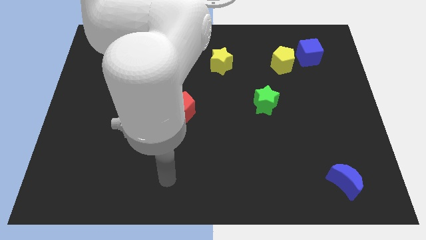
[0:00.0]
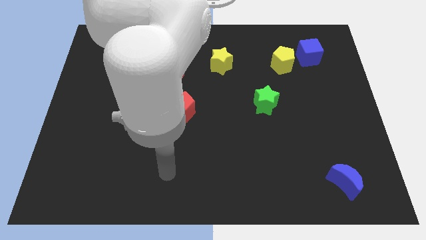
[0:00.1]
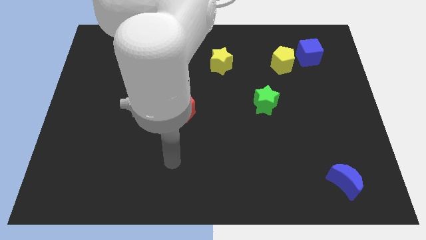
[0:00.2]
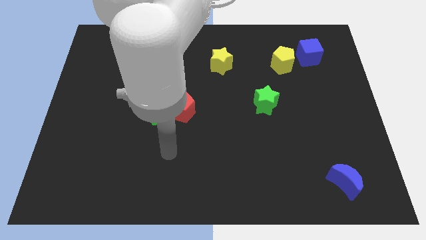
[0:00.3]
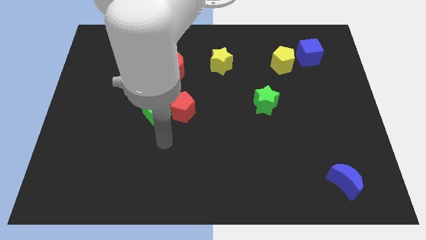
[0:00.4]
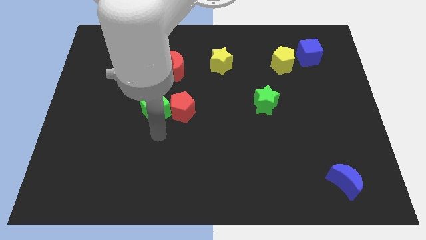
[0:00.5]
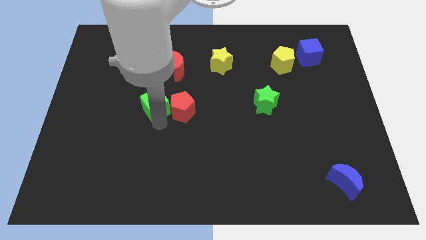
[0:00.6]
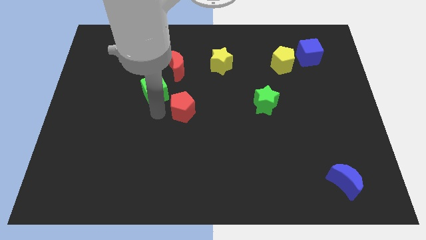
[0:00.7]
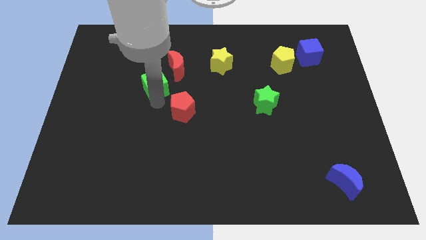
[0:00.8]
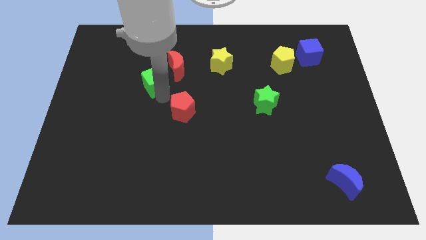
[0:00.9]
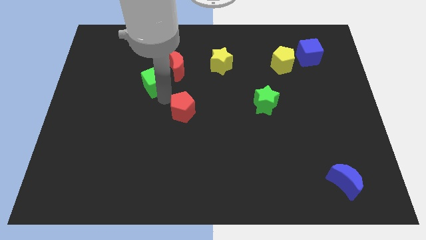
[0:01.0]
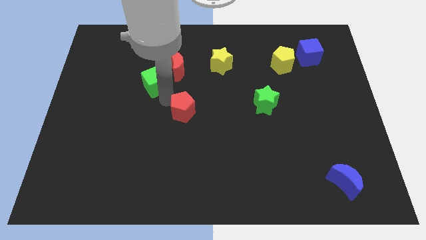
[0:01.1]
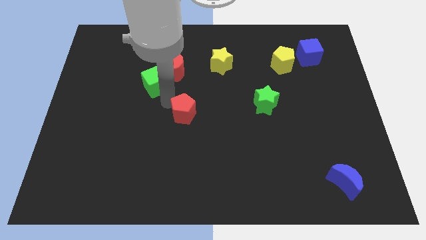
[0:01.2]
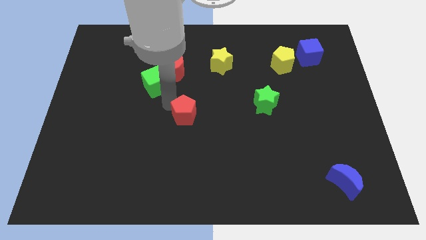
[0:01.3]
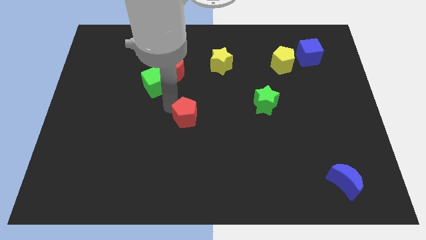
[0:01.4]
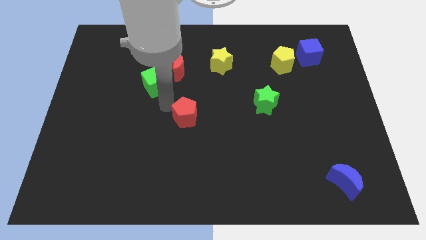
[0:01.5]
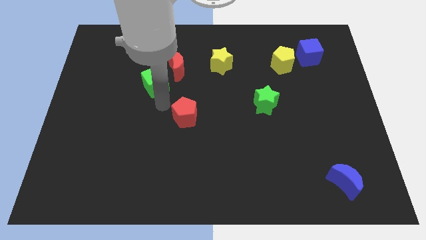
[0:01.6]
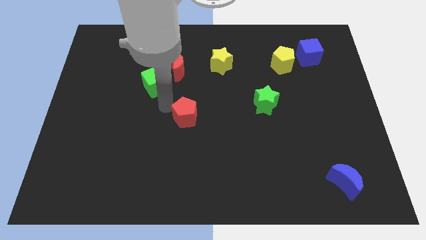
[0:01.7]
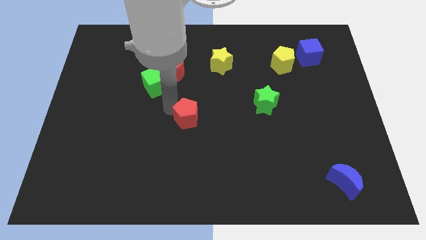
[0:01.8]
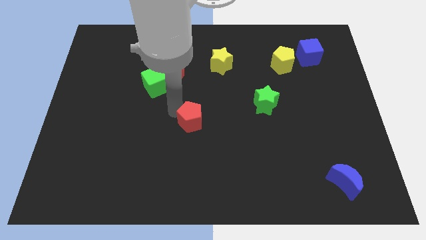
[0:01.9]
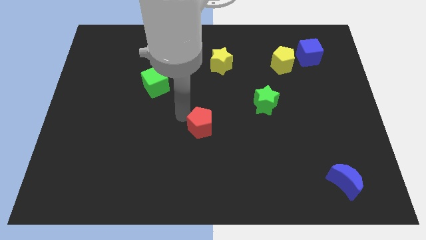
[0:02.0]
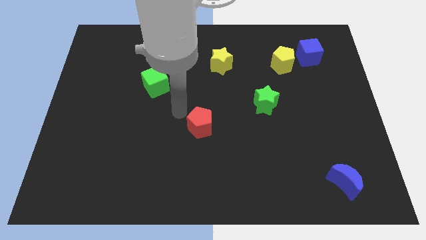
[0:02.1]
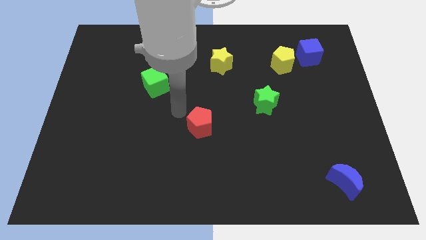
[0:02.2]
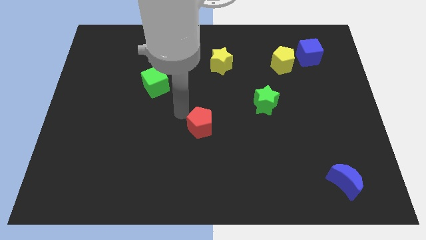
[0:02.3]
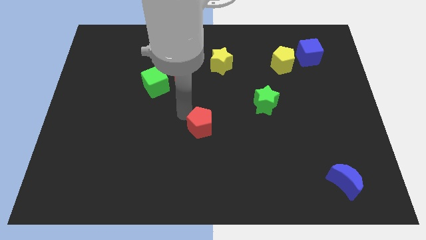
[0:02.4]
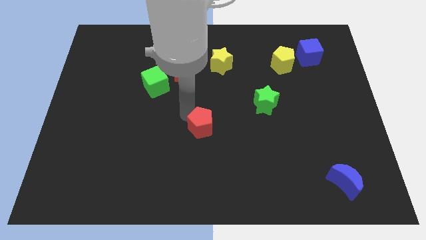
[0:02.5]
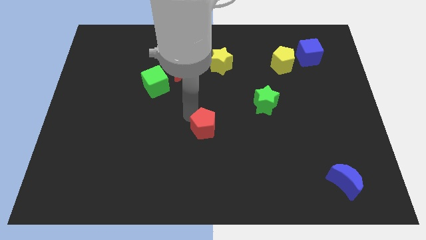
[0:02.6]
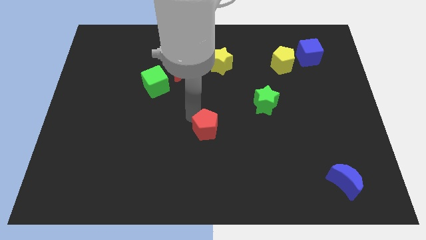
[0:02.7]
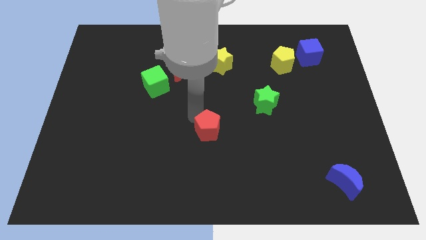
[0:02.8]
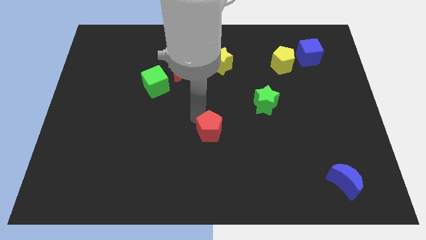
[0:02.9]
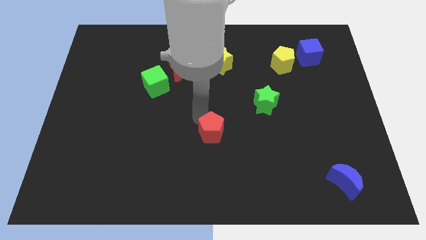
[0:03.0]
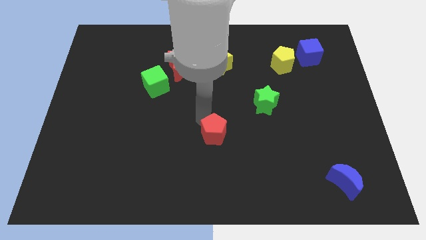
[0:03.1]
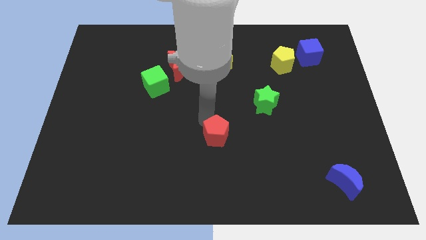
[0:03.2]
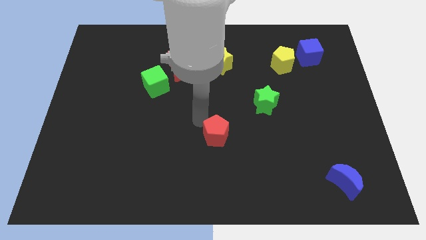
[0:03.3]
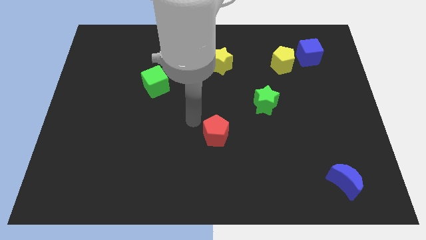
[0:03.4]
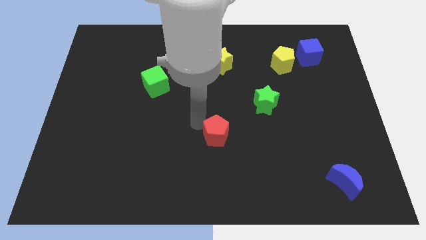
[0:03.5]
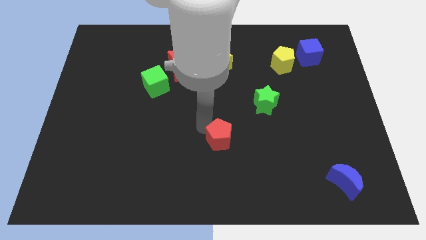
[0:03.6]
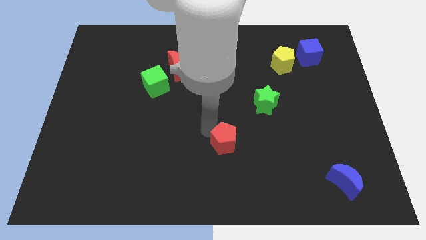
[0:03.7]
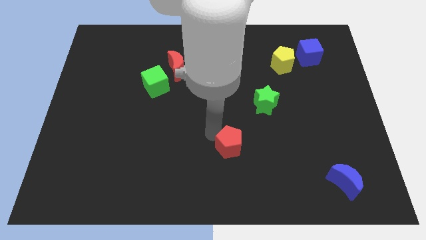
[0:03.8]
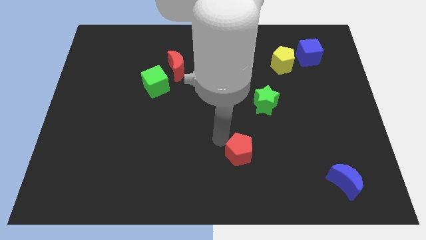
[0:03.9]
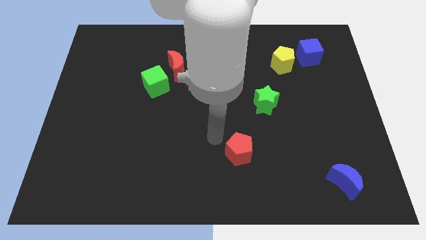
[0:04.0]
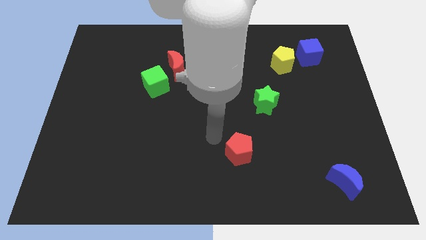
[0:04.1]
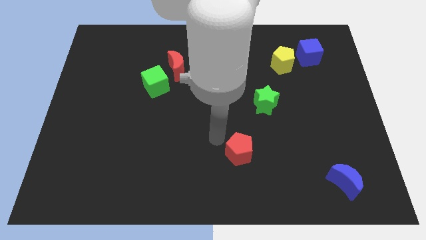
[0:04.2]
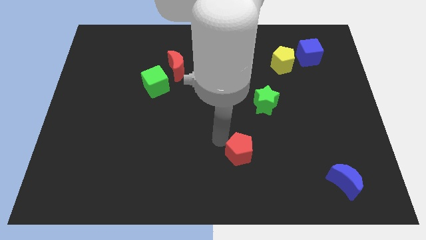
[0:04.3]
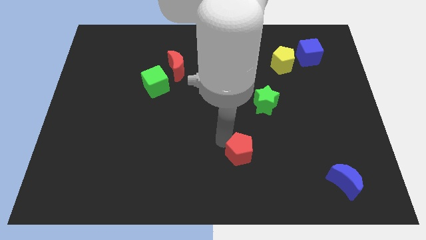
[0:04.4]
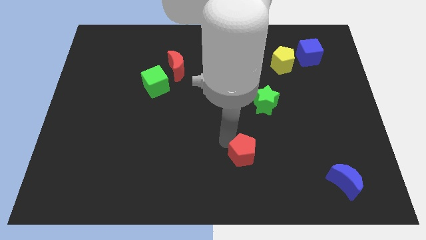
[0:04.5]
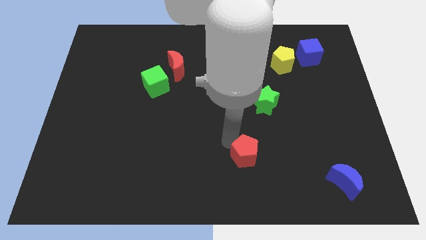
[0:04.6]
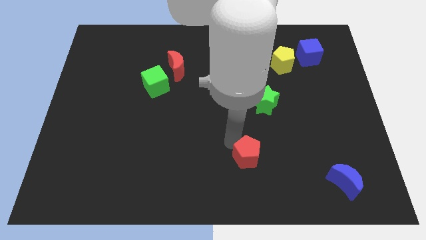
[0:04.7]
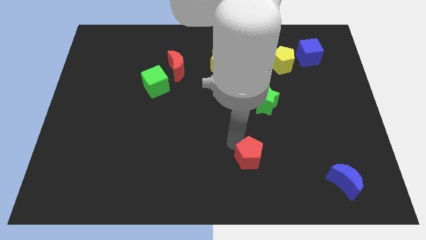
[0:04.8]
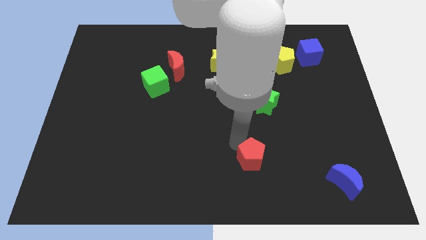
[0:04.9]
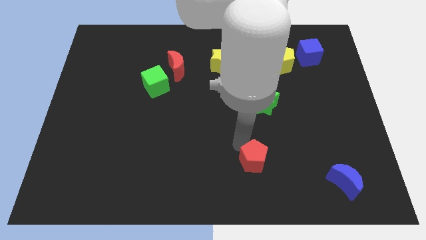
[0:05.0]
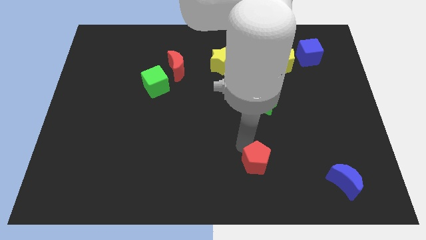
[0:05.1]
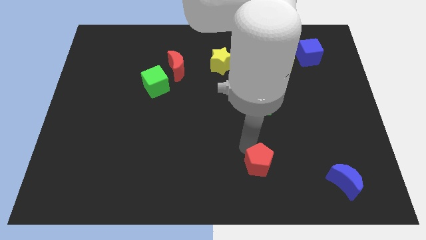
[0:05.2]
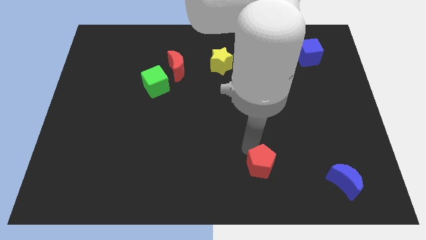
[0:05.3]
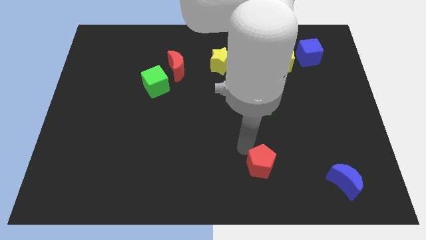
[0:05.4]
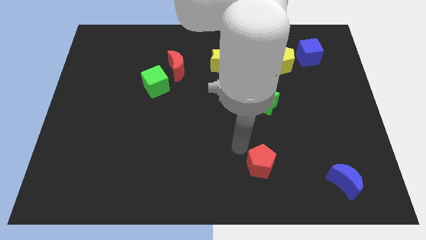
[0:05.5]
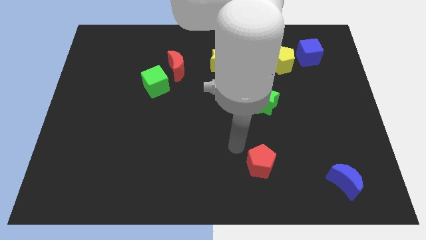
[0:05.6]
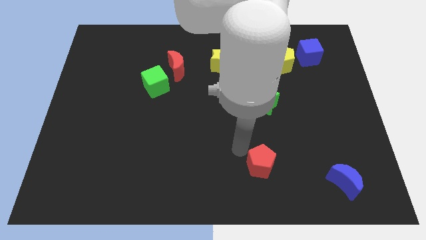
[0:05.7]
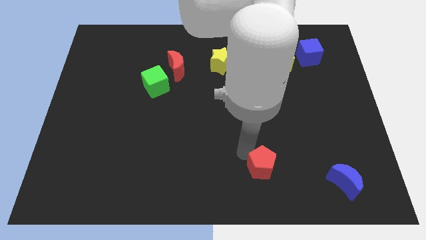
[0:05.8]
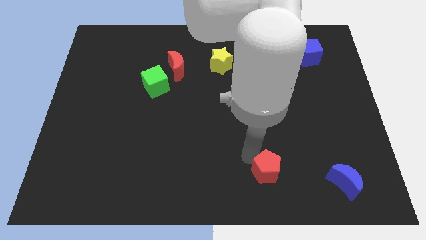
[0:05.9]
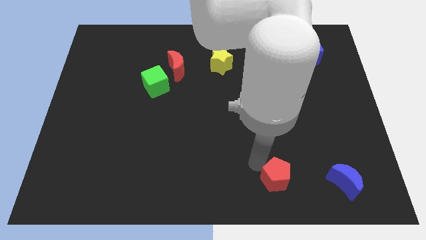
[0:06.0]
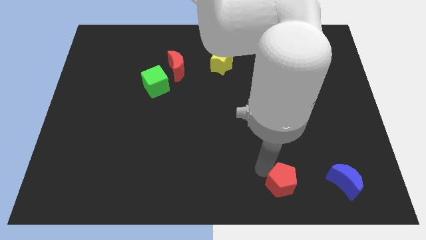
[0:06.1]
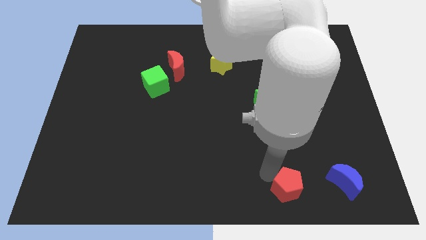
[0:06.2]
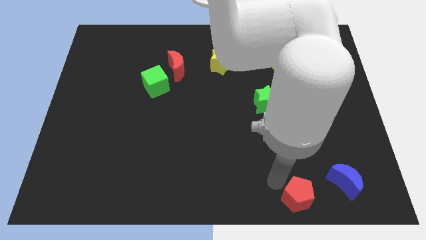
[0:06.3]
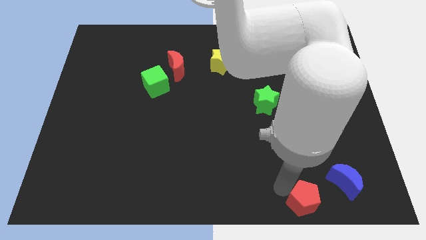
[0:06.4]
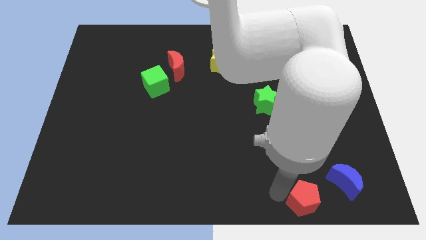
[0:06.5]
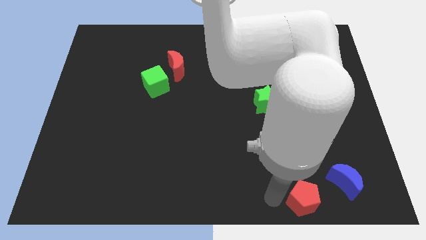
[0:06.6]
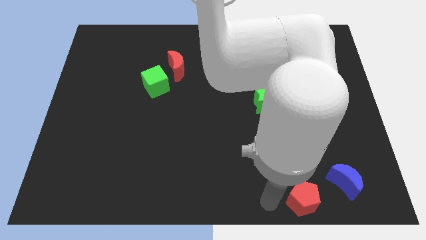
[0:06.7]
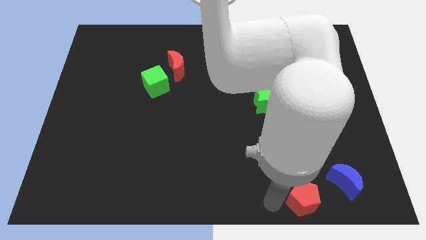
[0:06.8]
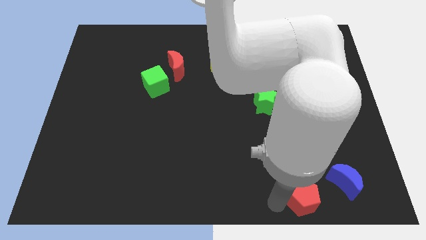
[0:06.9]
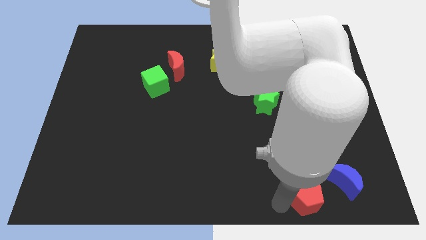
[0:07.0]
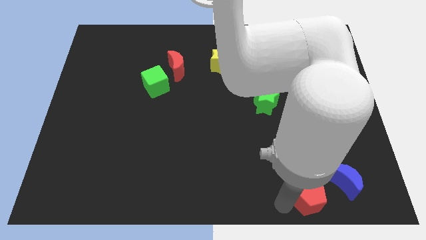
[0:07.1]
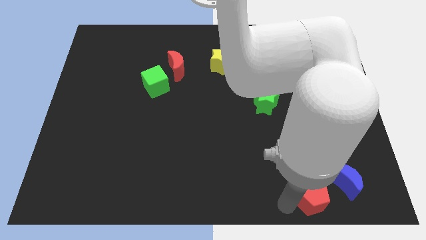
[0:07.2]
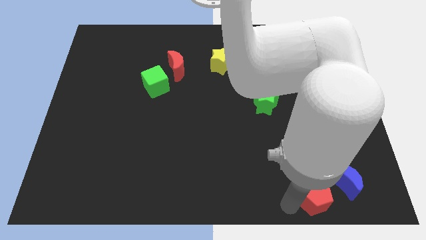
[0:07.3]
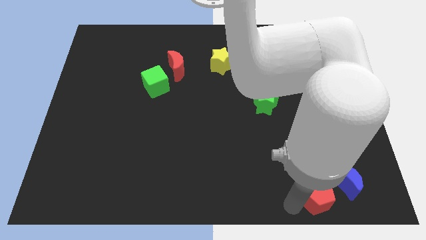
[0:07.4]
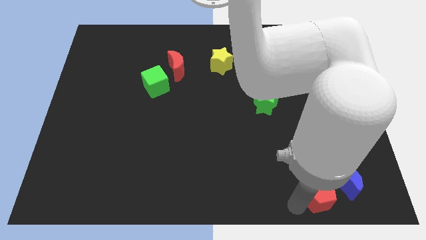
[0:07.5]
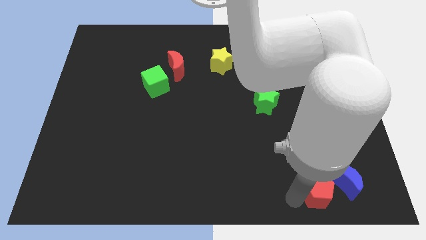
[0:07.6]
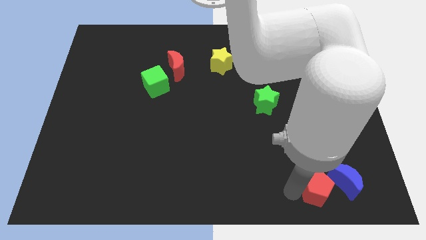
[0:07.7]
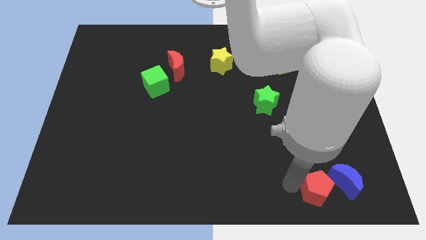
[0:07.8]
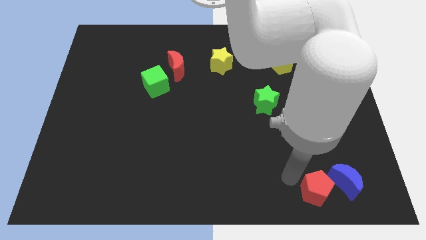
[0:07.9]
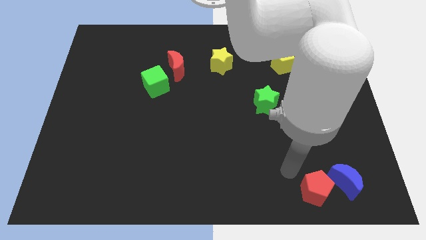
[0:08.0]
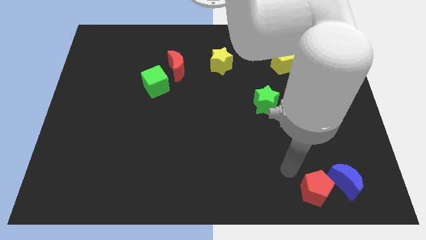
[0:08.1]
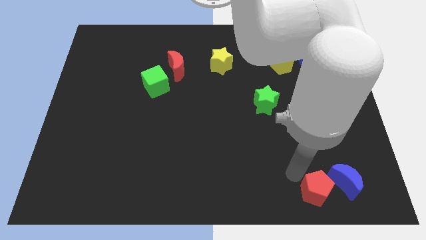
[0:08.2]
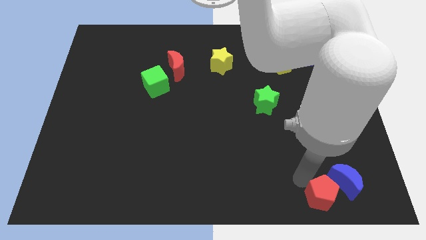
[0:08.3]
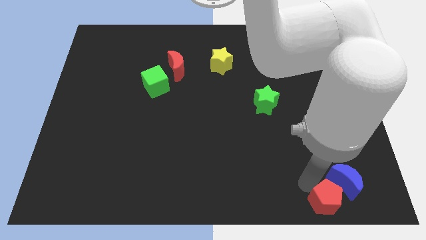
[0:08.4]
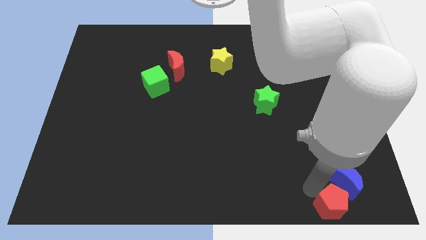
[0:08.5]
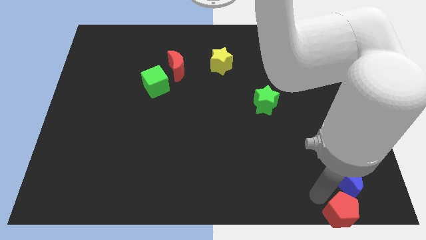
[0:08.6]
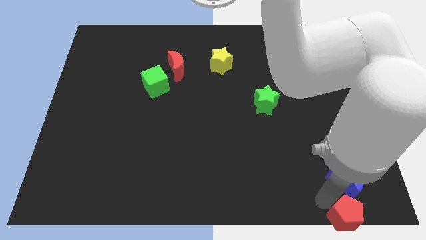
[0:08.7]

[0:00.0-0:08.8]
move the red pentagon to the bottom right corner
